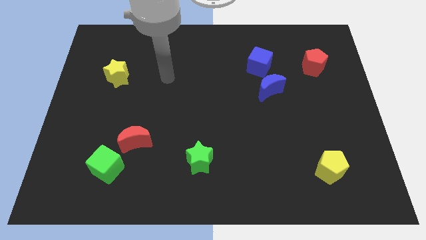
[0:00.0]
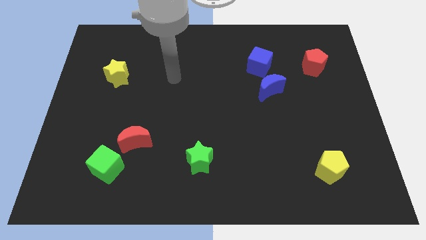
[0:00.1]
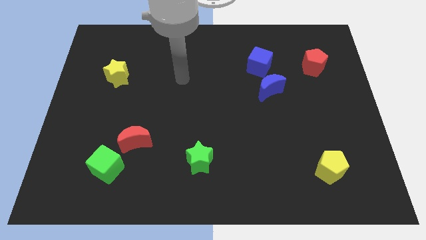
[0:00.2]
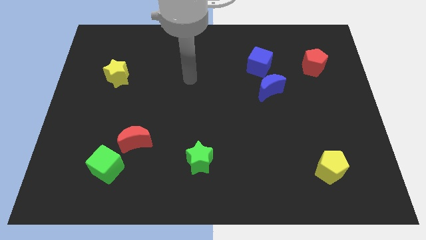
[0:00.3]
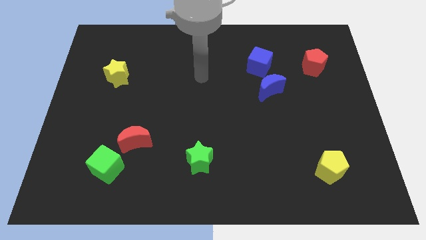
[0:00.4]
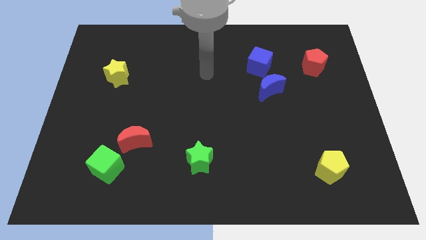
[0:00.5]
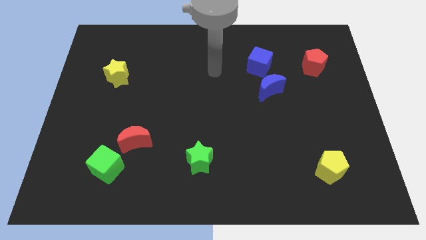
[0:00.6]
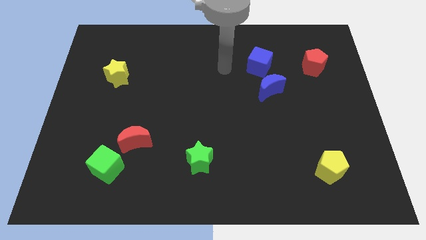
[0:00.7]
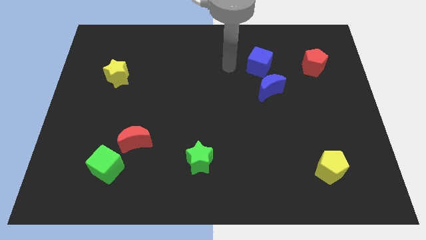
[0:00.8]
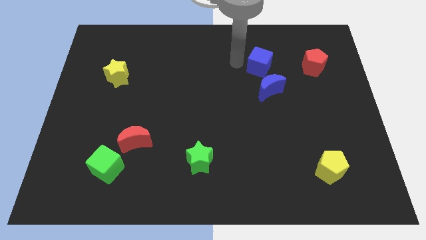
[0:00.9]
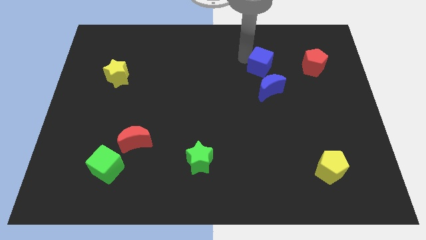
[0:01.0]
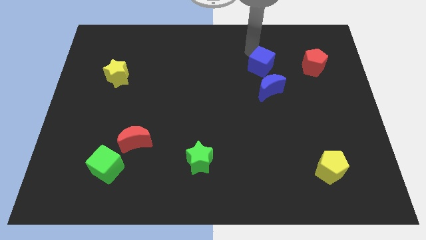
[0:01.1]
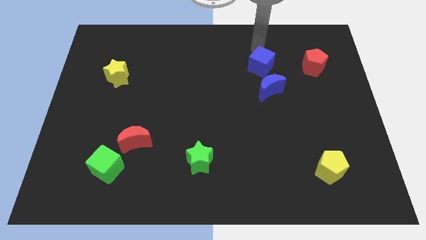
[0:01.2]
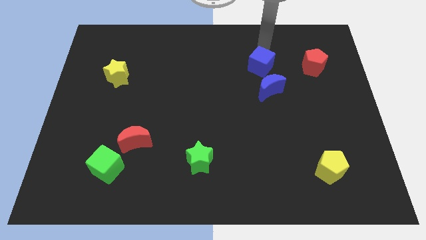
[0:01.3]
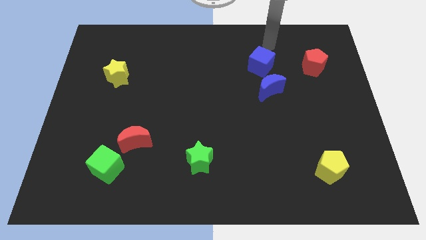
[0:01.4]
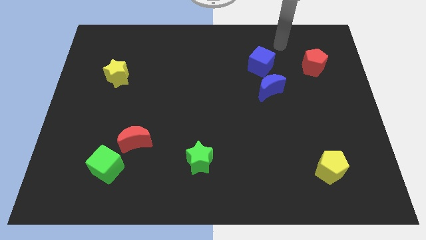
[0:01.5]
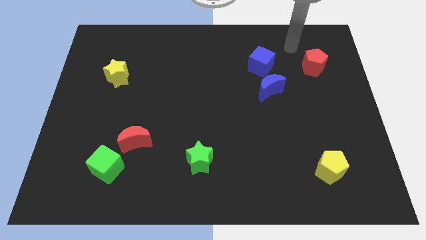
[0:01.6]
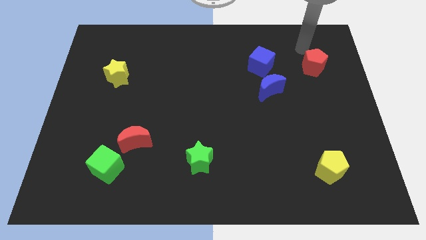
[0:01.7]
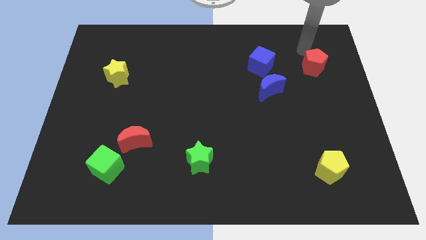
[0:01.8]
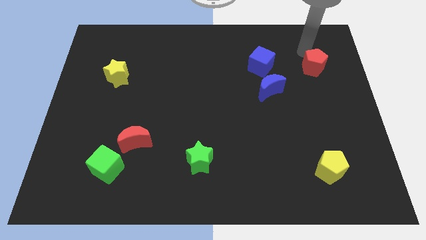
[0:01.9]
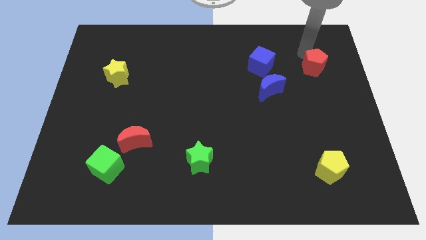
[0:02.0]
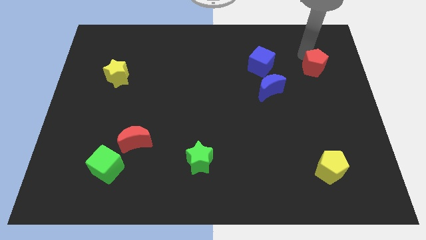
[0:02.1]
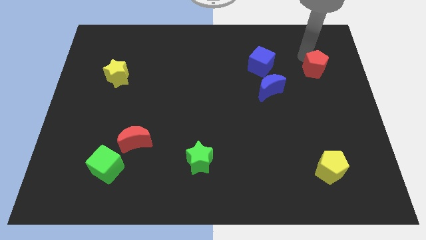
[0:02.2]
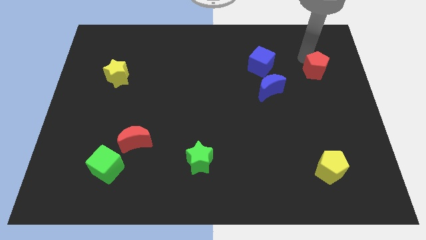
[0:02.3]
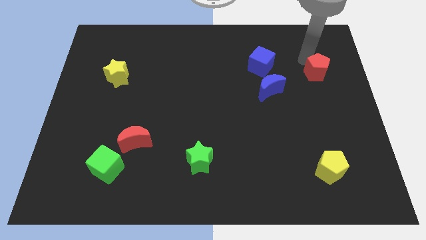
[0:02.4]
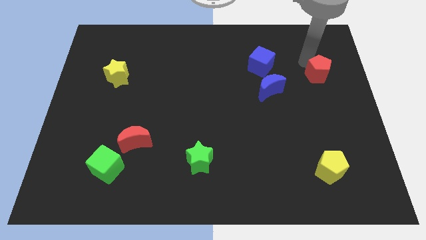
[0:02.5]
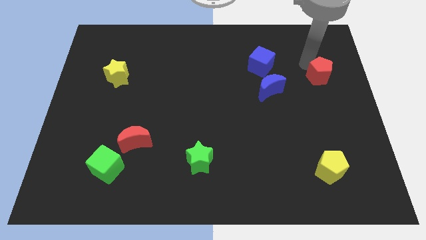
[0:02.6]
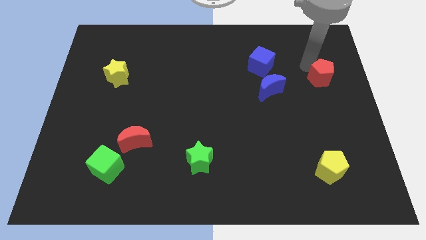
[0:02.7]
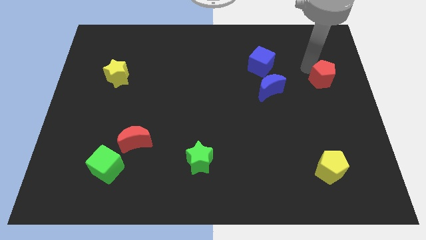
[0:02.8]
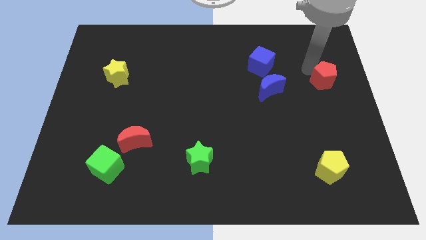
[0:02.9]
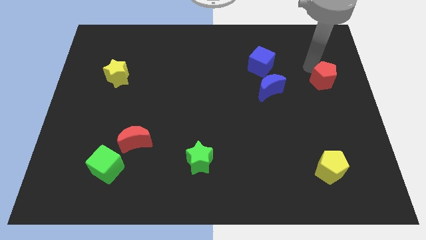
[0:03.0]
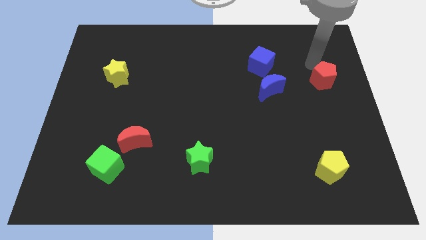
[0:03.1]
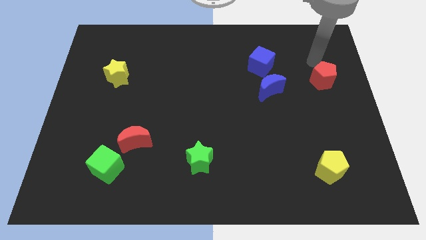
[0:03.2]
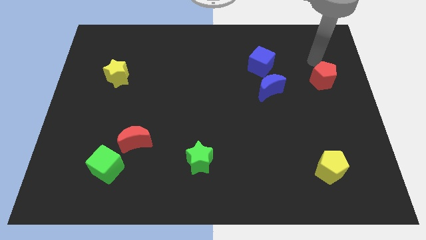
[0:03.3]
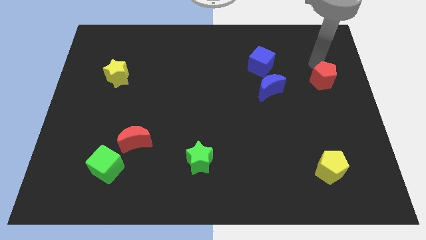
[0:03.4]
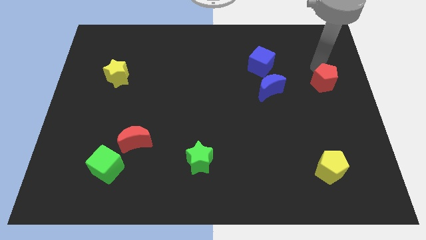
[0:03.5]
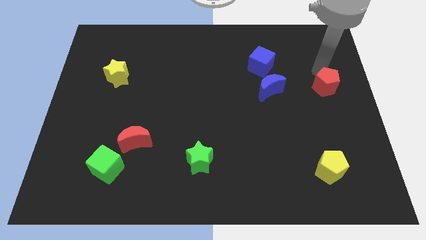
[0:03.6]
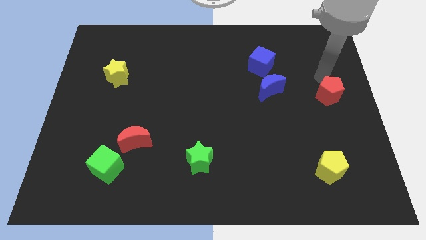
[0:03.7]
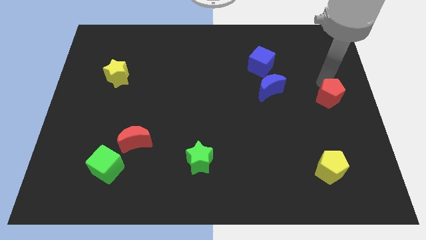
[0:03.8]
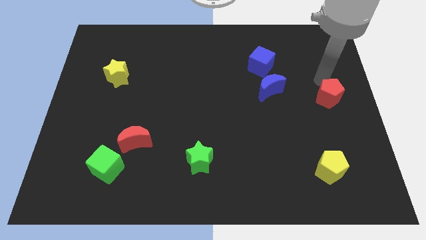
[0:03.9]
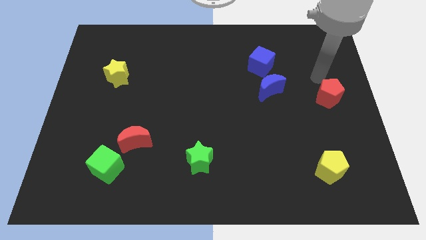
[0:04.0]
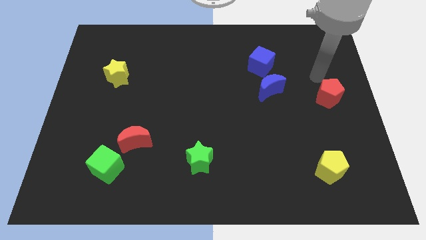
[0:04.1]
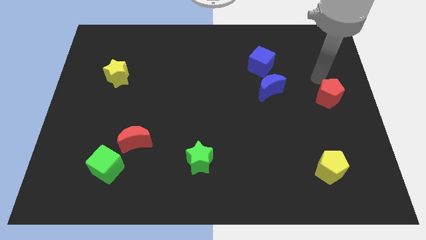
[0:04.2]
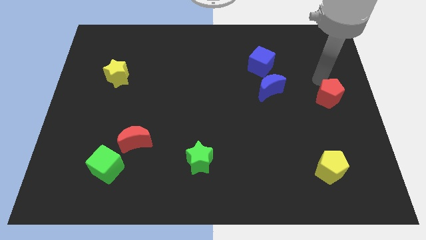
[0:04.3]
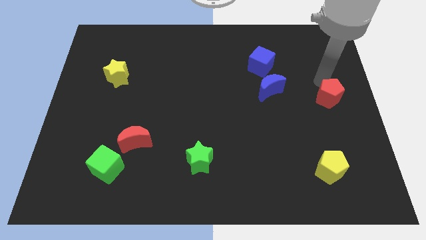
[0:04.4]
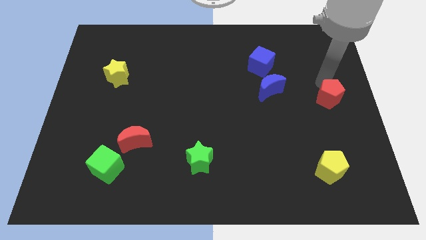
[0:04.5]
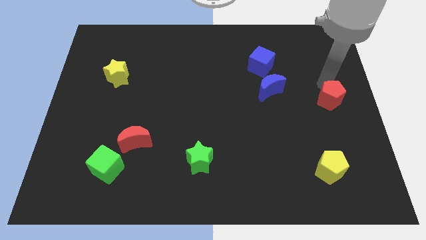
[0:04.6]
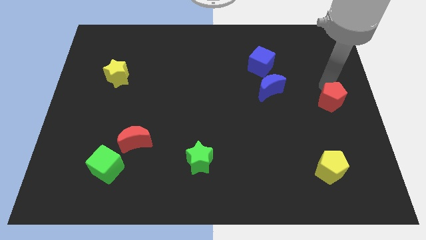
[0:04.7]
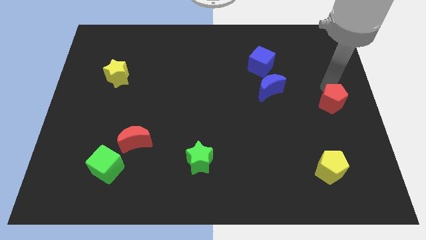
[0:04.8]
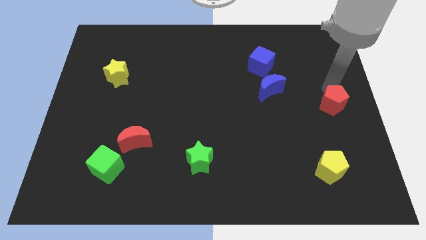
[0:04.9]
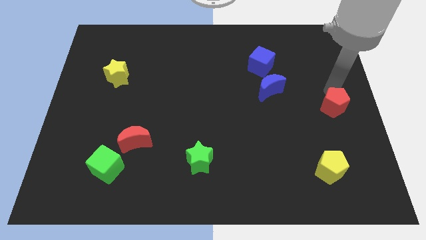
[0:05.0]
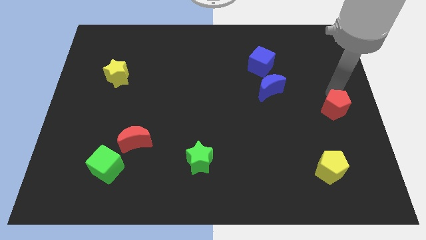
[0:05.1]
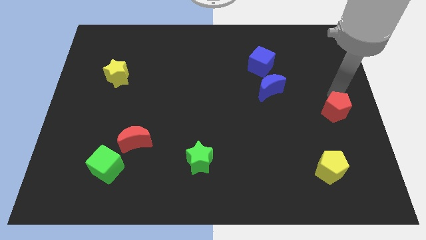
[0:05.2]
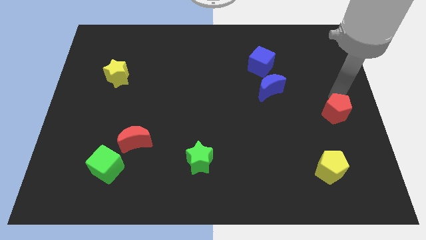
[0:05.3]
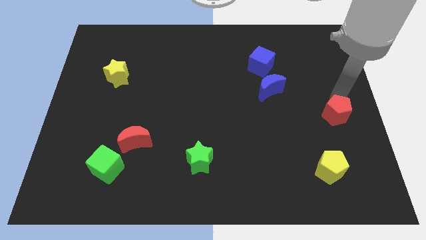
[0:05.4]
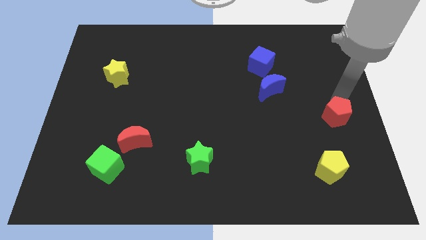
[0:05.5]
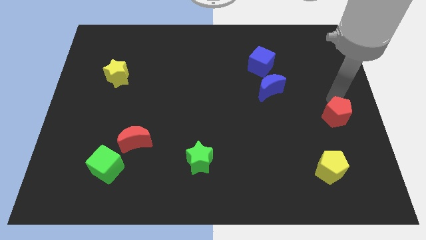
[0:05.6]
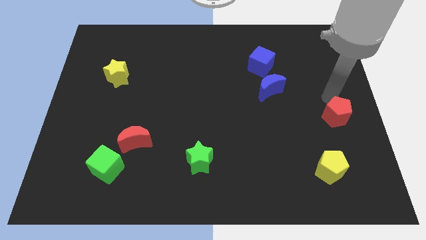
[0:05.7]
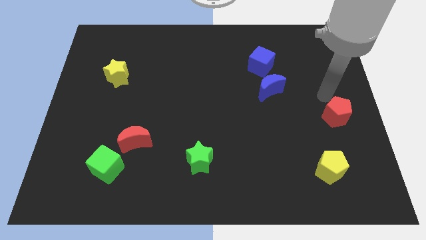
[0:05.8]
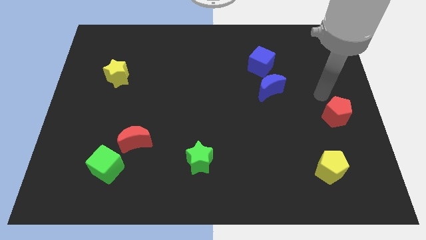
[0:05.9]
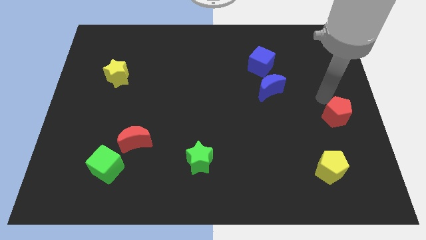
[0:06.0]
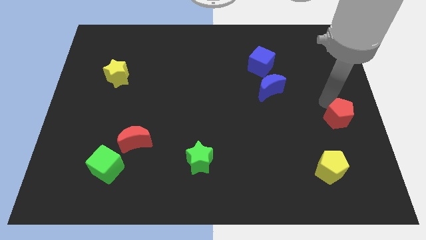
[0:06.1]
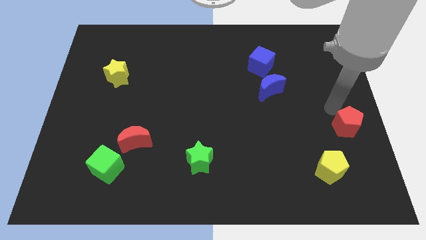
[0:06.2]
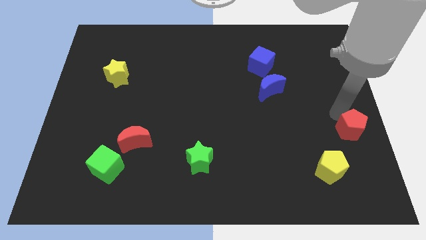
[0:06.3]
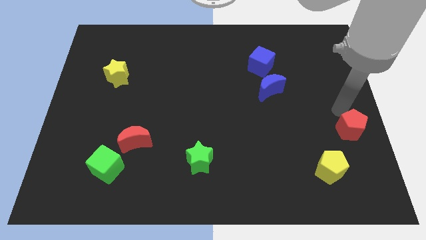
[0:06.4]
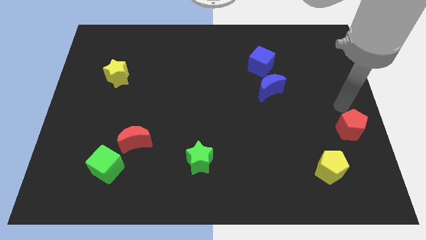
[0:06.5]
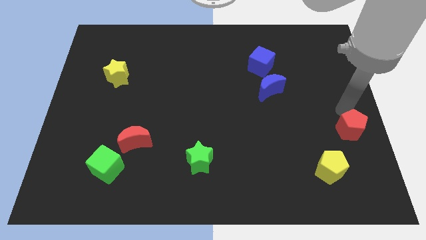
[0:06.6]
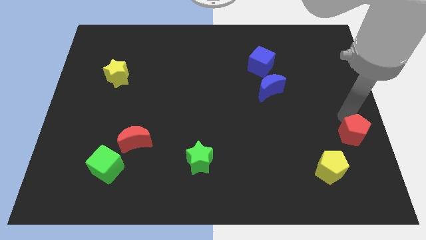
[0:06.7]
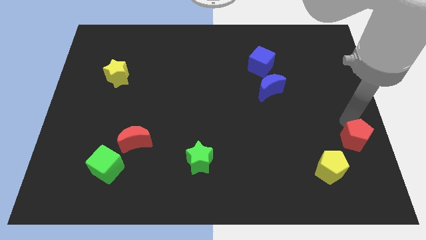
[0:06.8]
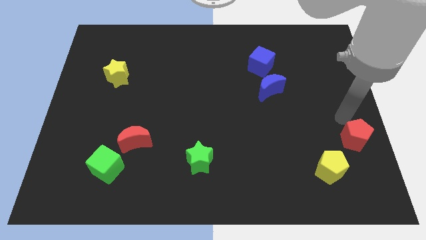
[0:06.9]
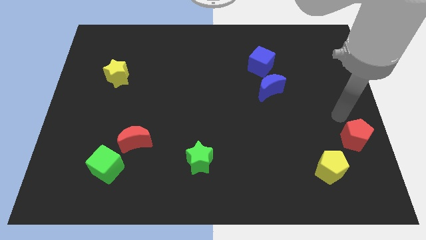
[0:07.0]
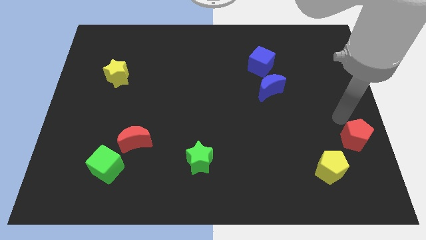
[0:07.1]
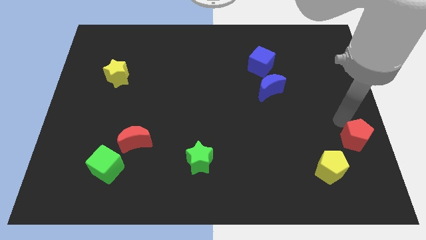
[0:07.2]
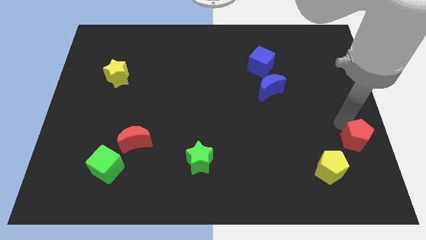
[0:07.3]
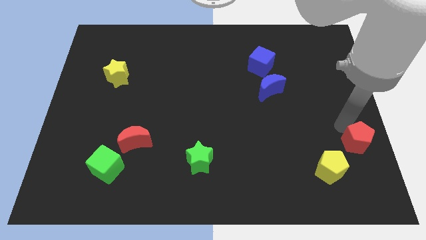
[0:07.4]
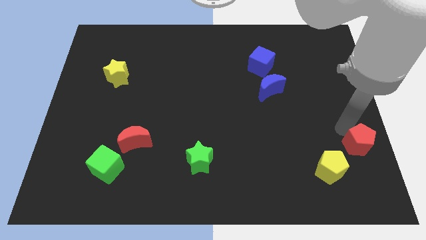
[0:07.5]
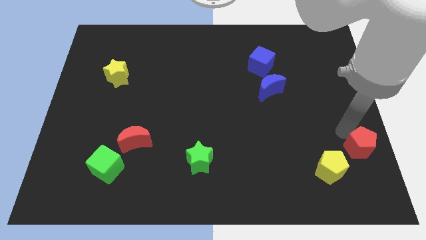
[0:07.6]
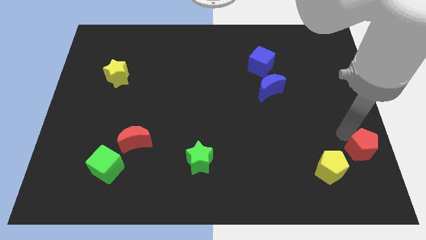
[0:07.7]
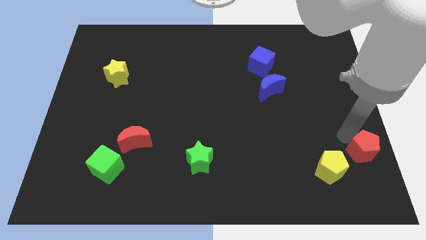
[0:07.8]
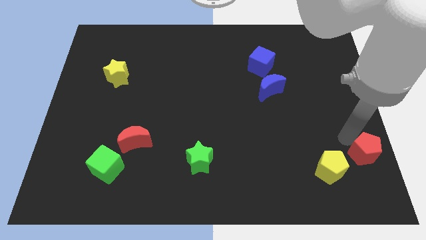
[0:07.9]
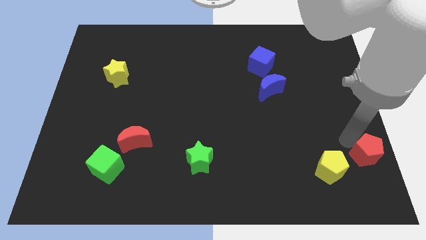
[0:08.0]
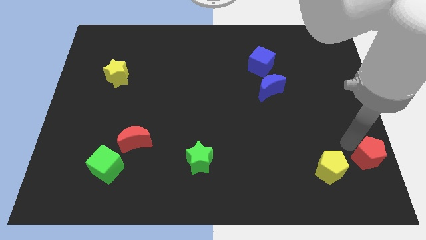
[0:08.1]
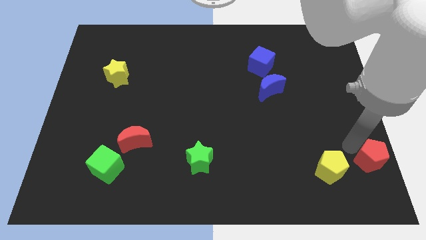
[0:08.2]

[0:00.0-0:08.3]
slide the red pentagon to the lower right corner
